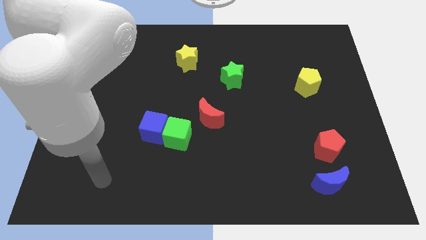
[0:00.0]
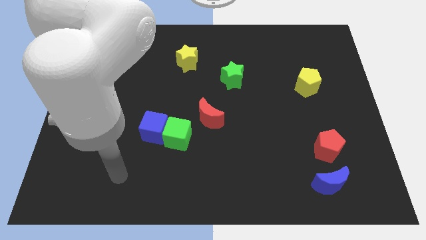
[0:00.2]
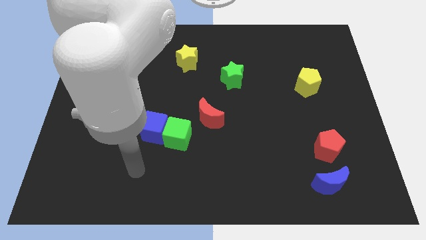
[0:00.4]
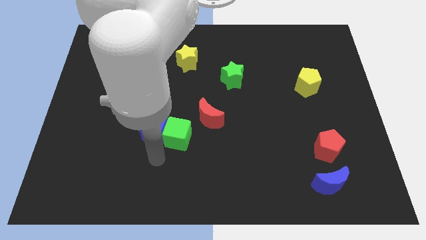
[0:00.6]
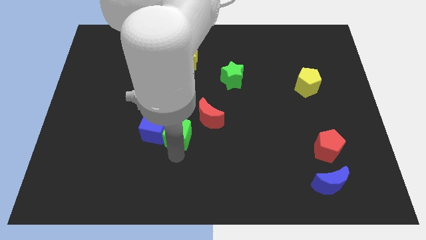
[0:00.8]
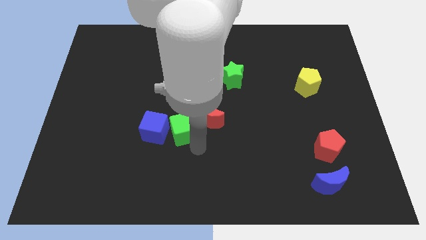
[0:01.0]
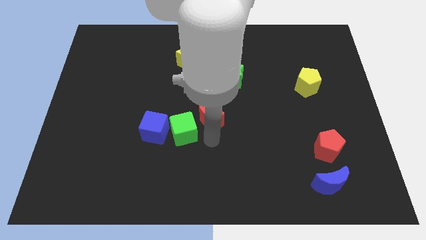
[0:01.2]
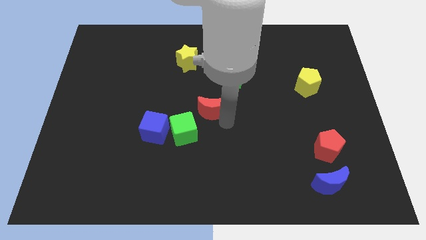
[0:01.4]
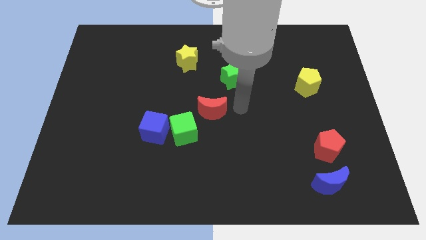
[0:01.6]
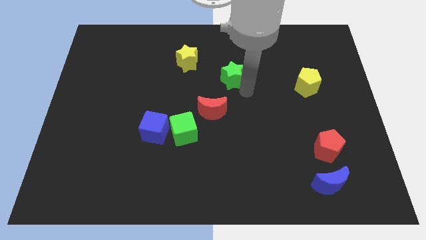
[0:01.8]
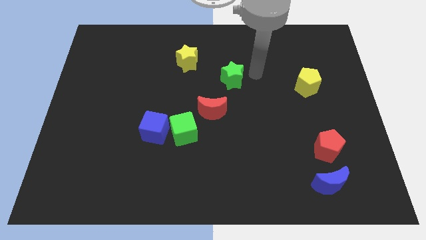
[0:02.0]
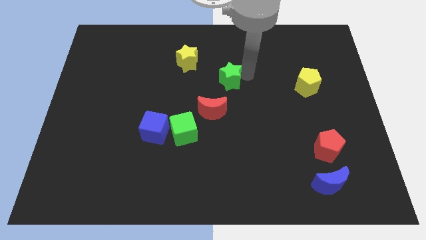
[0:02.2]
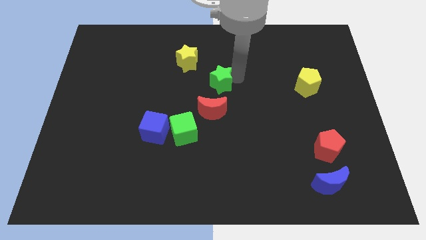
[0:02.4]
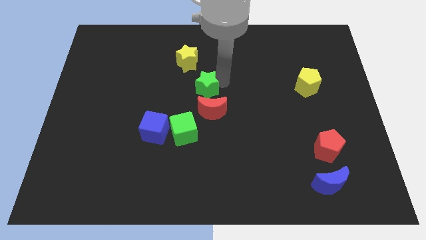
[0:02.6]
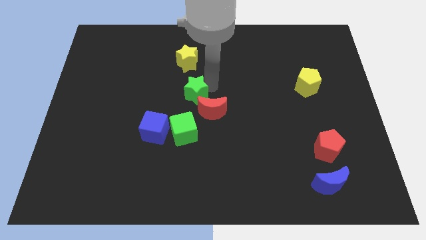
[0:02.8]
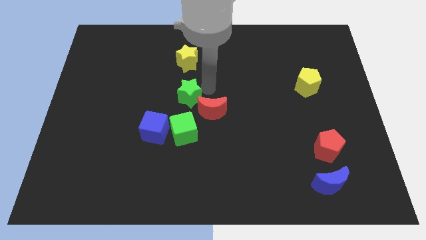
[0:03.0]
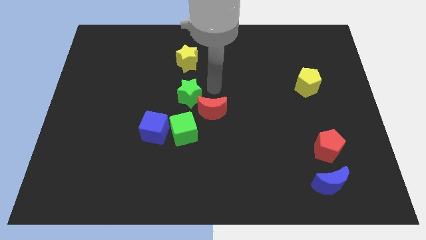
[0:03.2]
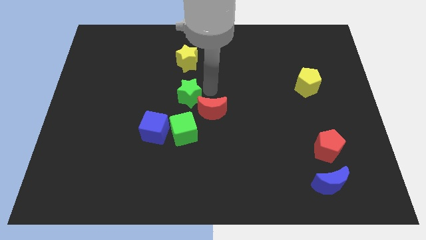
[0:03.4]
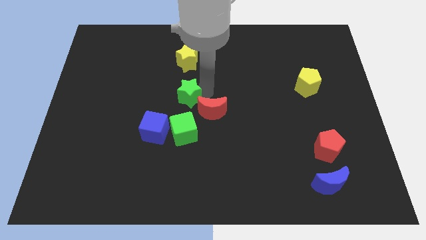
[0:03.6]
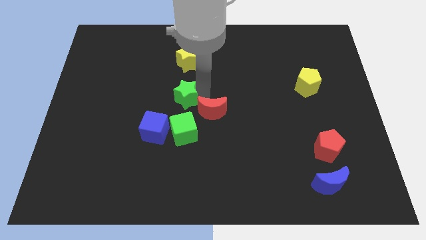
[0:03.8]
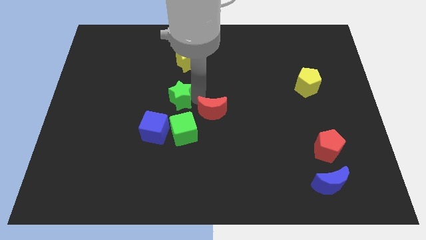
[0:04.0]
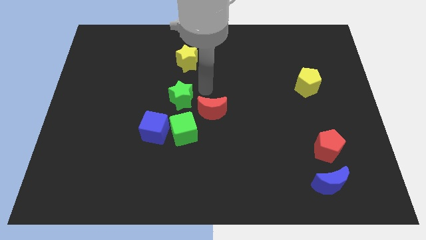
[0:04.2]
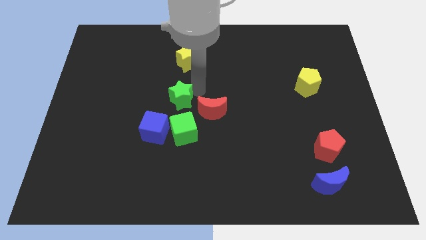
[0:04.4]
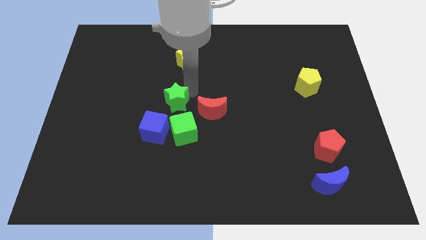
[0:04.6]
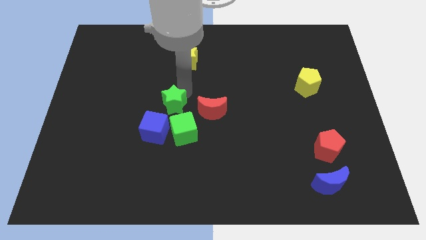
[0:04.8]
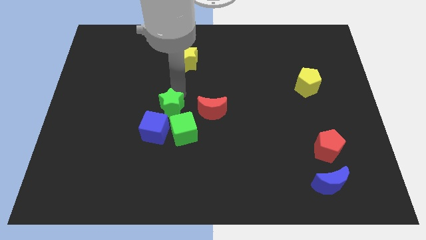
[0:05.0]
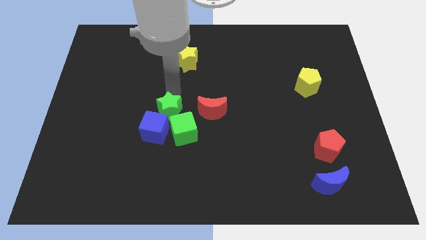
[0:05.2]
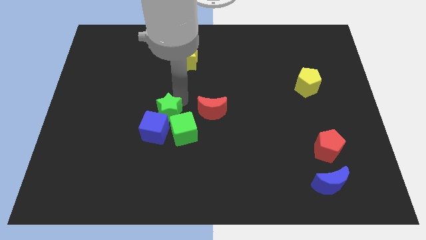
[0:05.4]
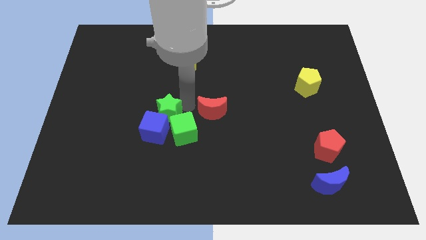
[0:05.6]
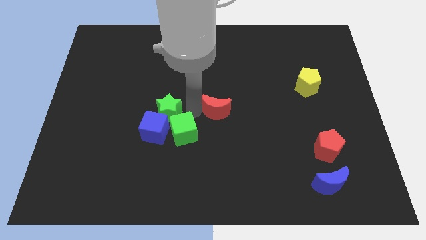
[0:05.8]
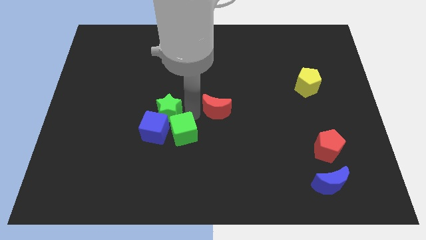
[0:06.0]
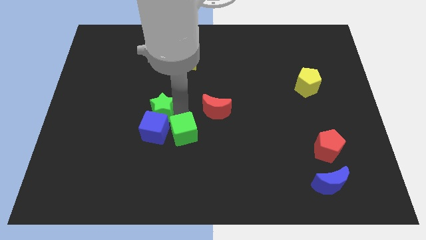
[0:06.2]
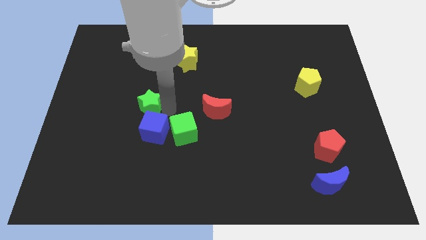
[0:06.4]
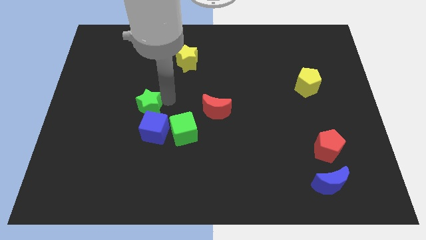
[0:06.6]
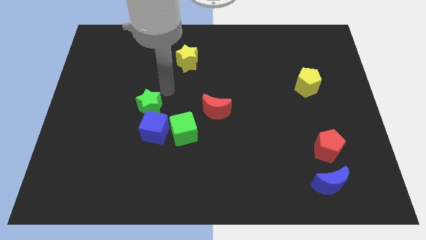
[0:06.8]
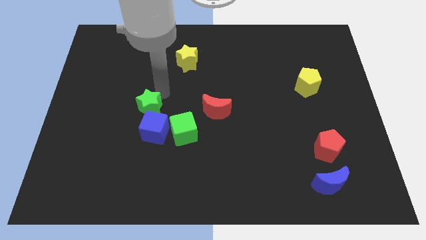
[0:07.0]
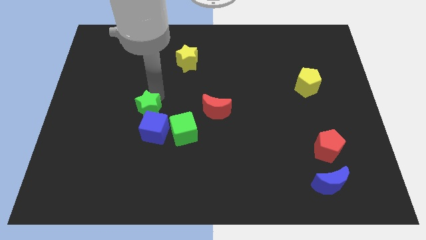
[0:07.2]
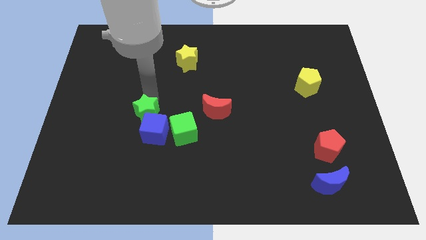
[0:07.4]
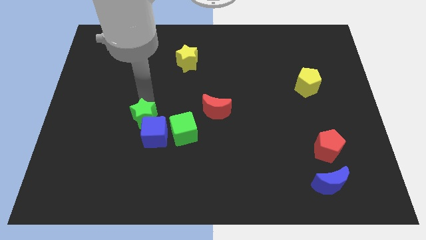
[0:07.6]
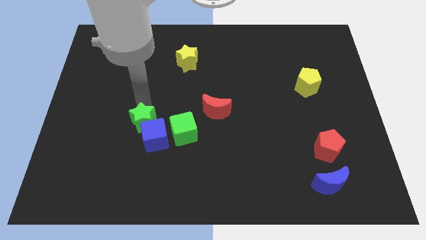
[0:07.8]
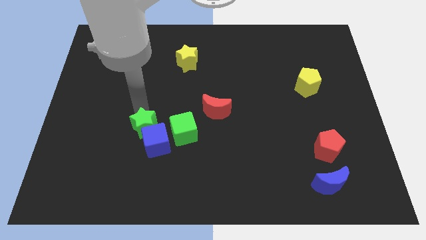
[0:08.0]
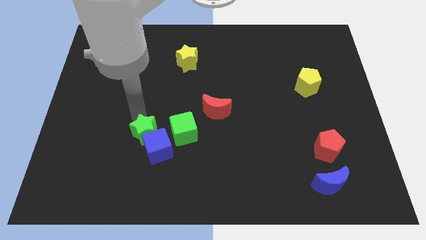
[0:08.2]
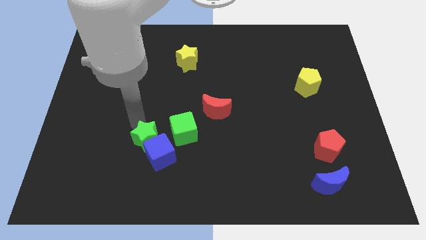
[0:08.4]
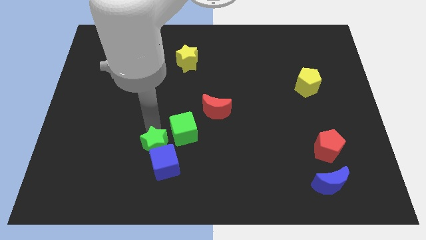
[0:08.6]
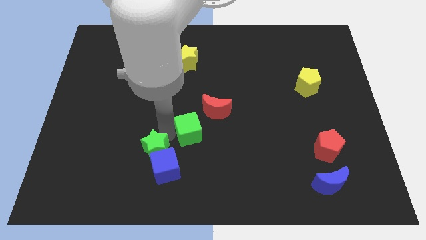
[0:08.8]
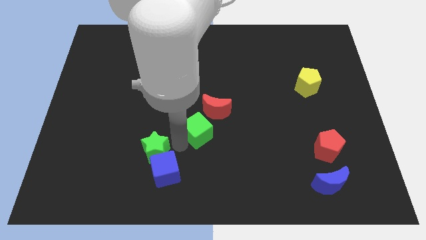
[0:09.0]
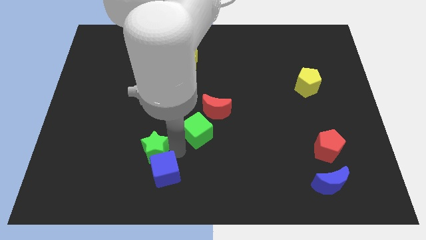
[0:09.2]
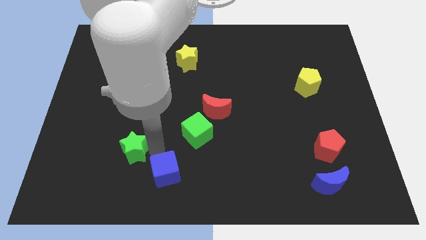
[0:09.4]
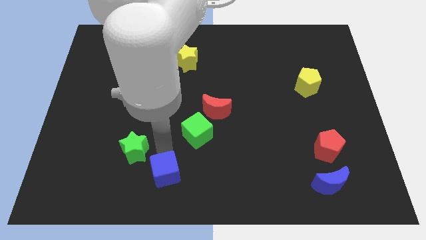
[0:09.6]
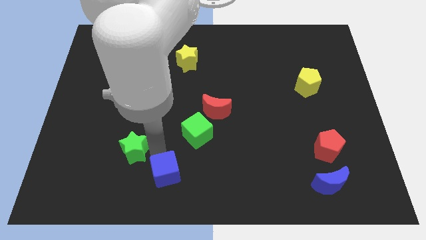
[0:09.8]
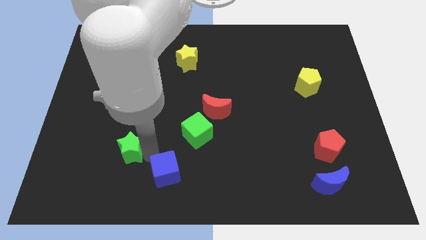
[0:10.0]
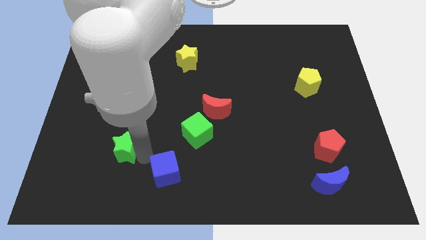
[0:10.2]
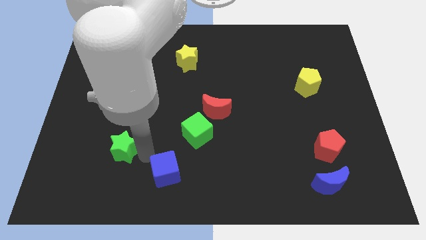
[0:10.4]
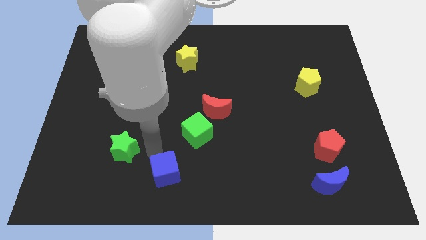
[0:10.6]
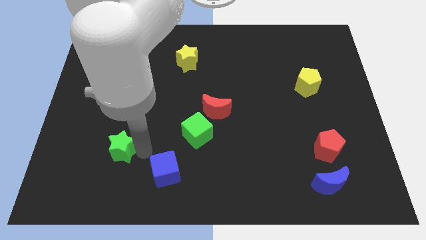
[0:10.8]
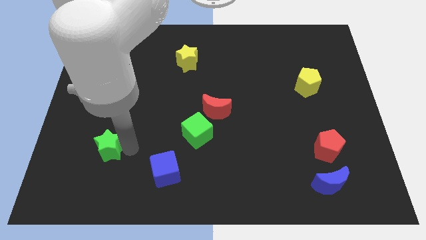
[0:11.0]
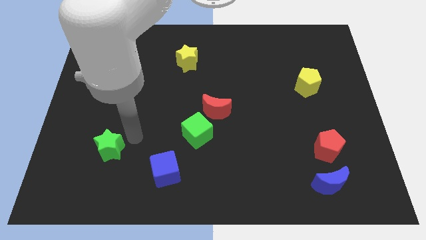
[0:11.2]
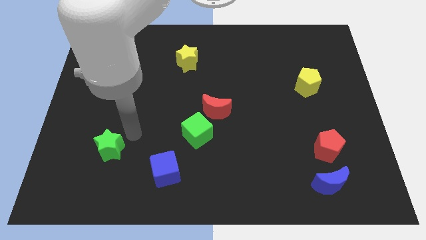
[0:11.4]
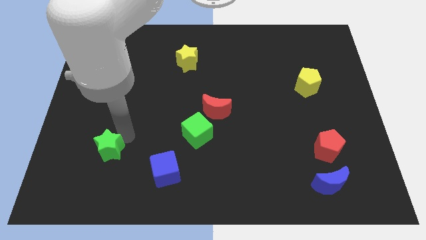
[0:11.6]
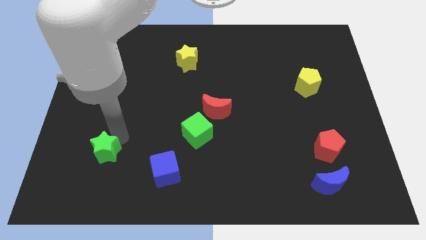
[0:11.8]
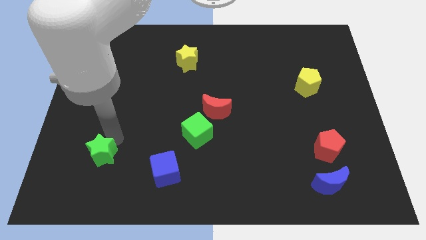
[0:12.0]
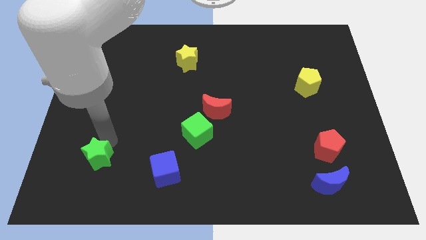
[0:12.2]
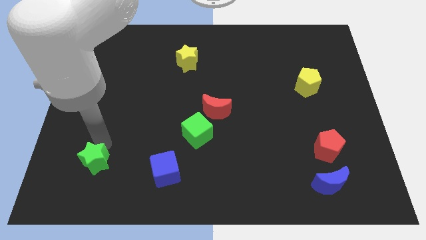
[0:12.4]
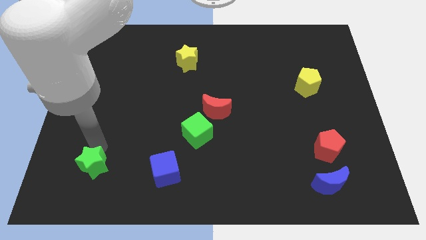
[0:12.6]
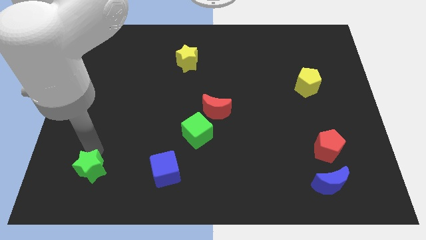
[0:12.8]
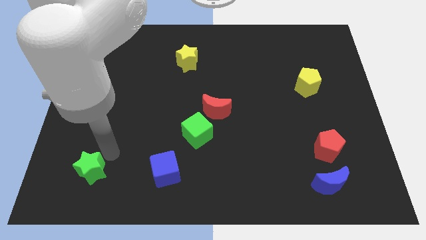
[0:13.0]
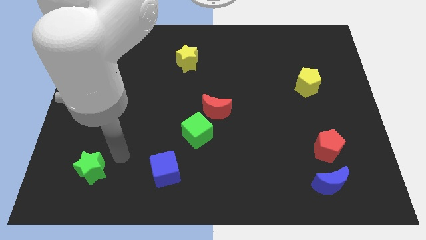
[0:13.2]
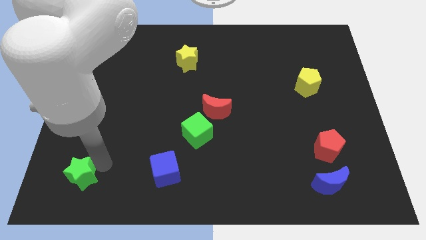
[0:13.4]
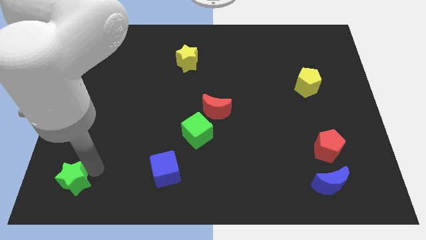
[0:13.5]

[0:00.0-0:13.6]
put the green star to the lower left corner
